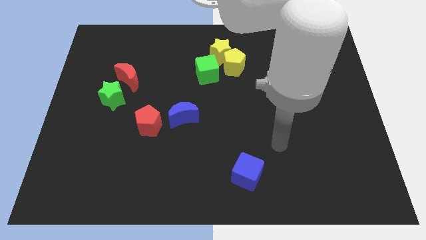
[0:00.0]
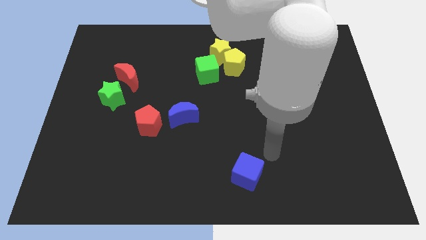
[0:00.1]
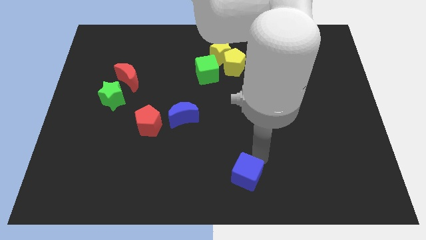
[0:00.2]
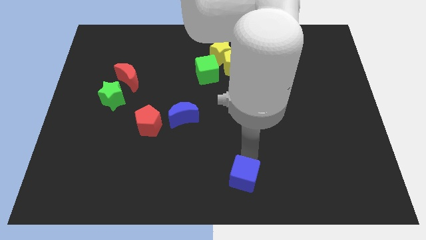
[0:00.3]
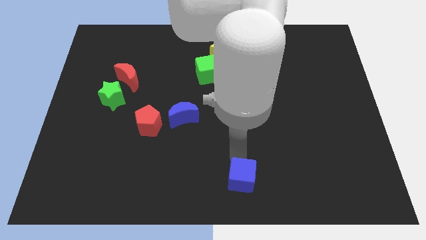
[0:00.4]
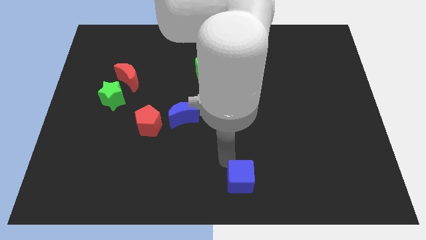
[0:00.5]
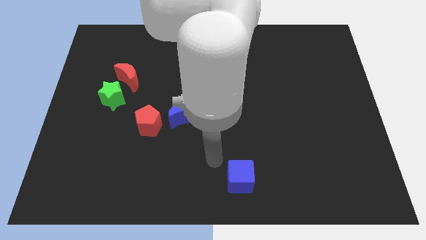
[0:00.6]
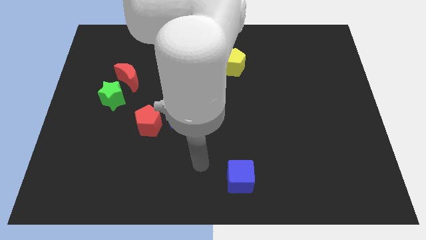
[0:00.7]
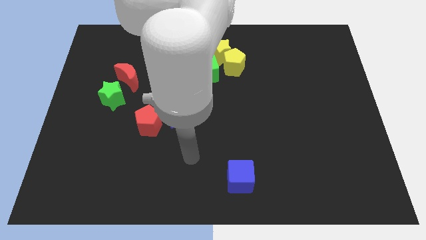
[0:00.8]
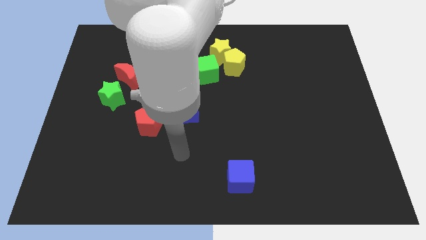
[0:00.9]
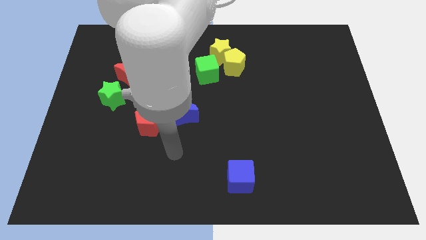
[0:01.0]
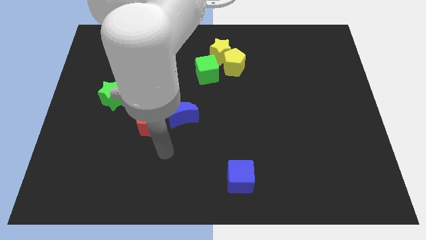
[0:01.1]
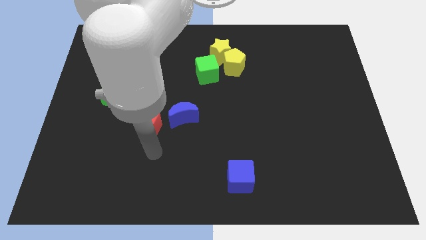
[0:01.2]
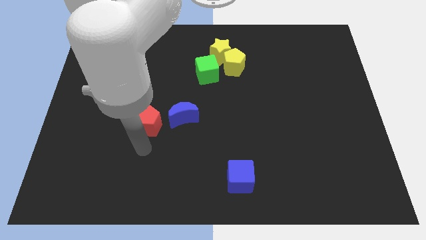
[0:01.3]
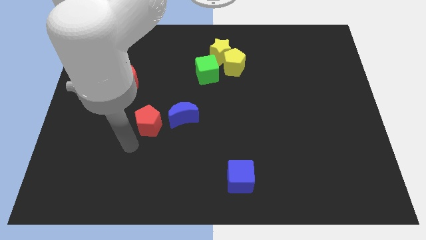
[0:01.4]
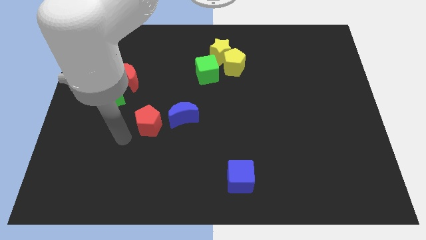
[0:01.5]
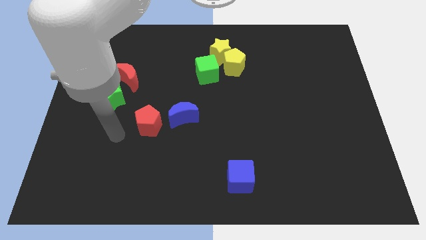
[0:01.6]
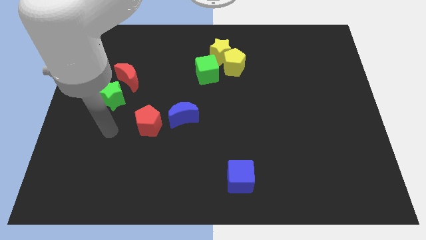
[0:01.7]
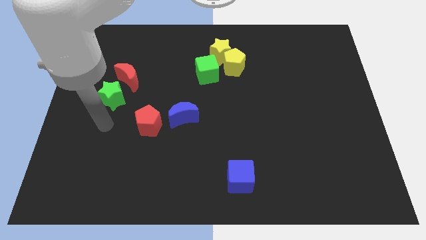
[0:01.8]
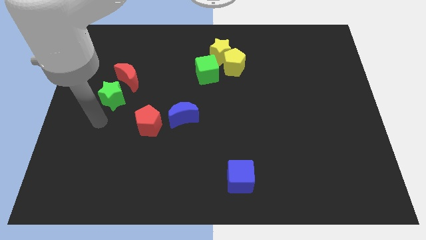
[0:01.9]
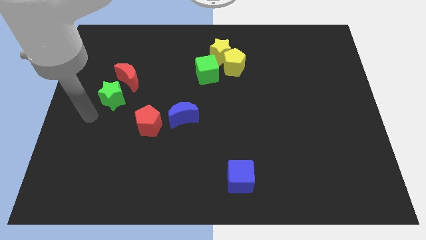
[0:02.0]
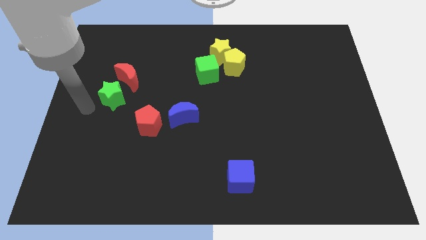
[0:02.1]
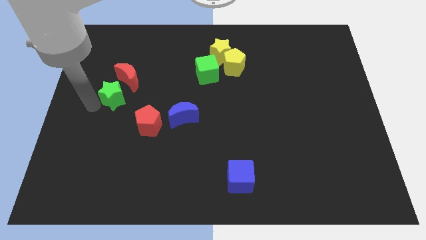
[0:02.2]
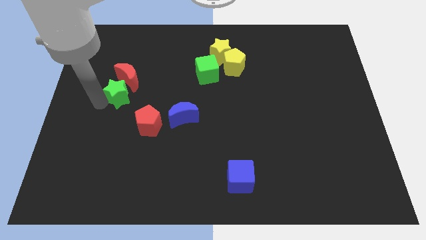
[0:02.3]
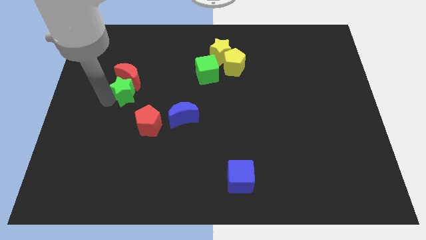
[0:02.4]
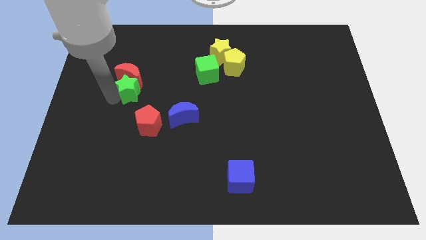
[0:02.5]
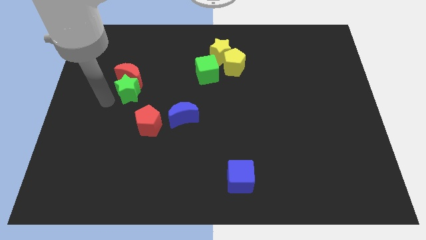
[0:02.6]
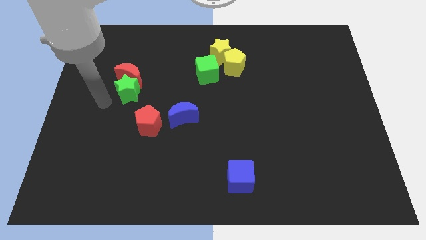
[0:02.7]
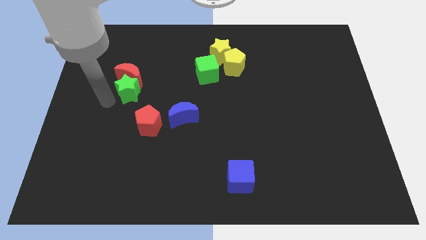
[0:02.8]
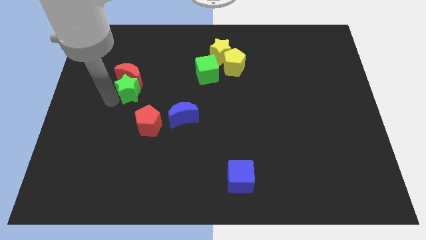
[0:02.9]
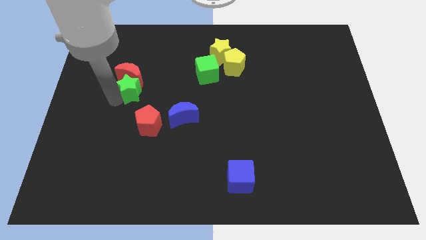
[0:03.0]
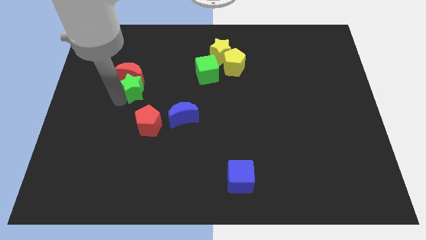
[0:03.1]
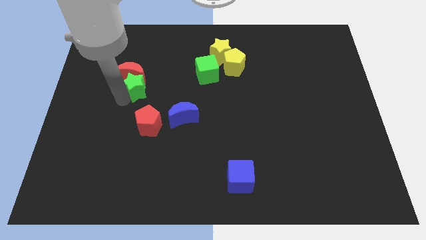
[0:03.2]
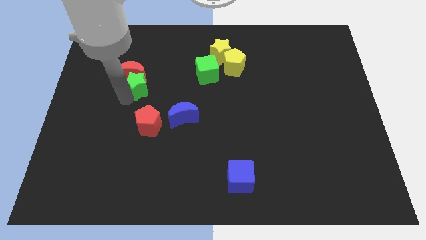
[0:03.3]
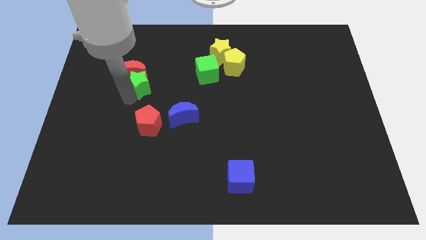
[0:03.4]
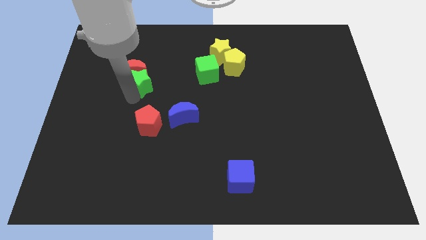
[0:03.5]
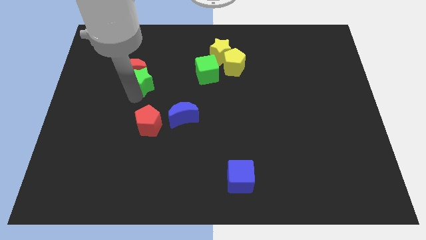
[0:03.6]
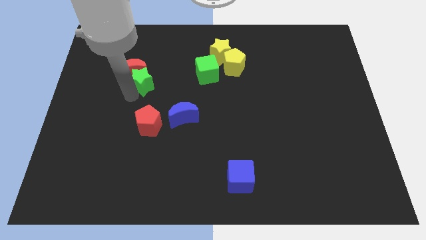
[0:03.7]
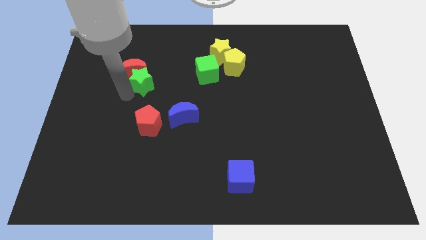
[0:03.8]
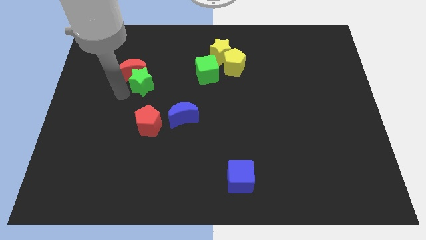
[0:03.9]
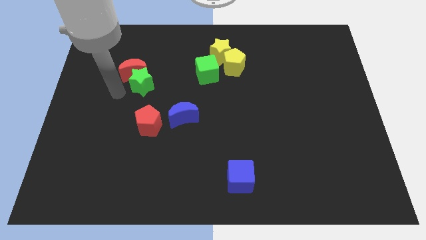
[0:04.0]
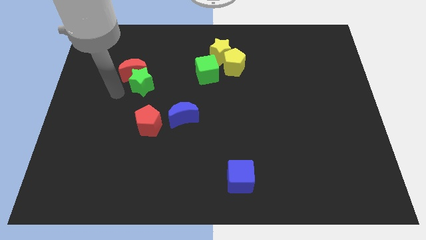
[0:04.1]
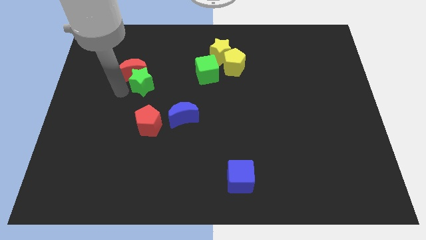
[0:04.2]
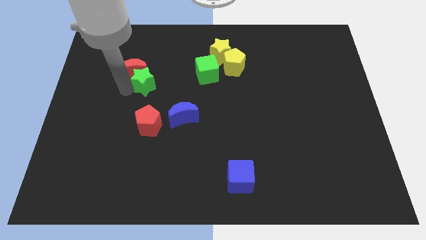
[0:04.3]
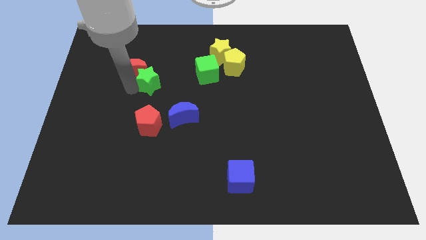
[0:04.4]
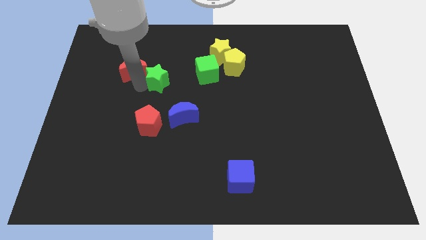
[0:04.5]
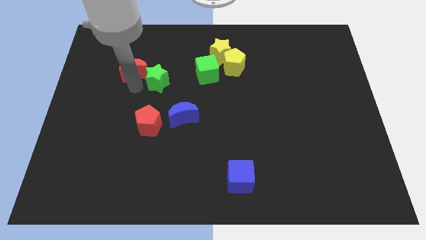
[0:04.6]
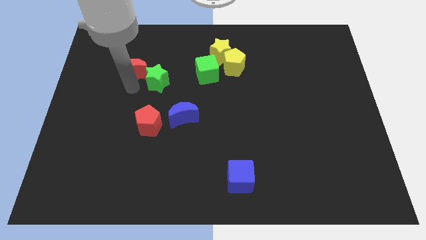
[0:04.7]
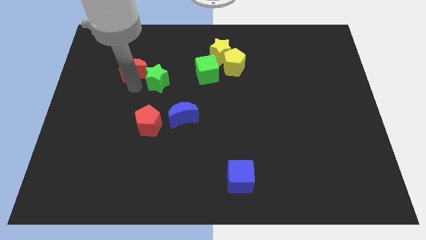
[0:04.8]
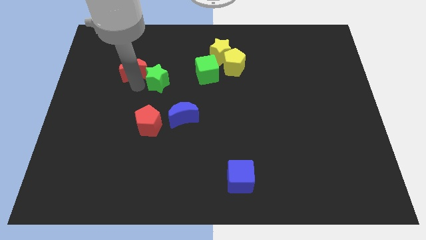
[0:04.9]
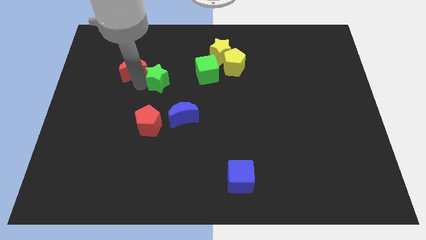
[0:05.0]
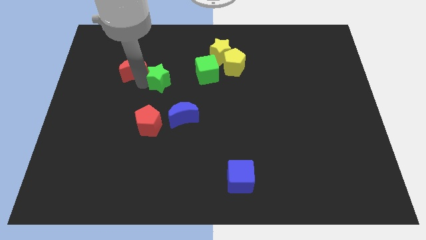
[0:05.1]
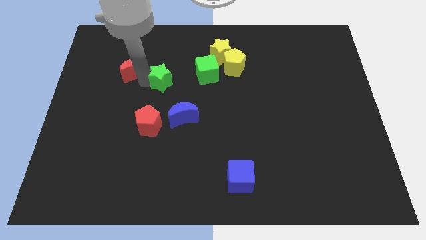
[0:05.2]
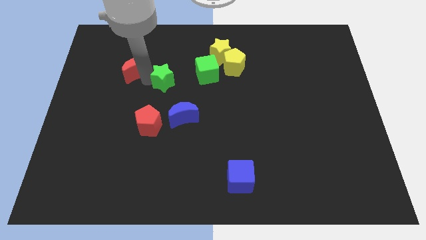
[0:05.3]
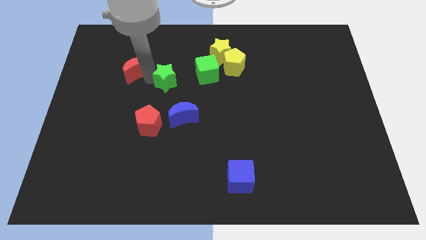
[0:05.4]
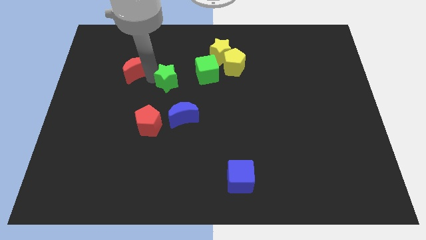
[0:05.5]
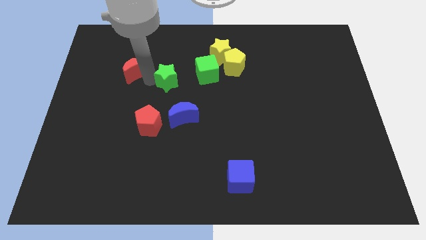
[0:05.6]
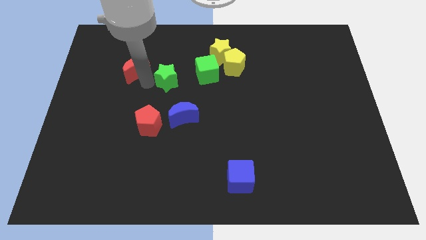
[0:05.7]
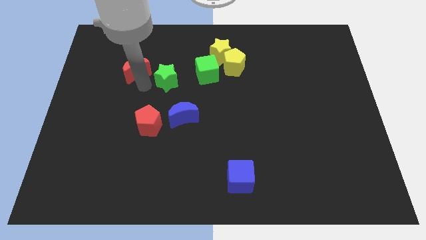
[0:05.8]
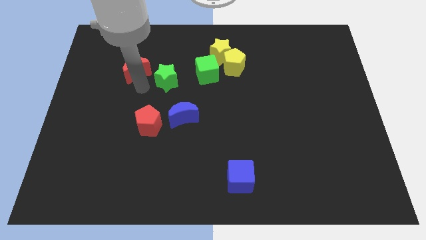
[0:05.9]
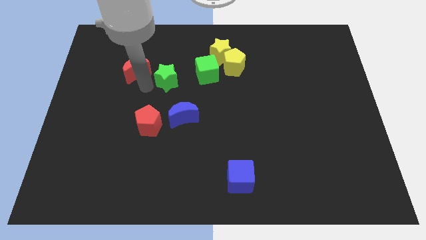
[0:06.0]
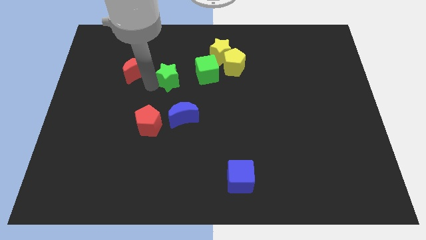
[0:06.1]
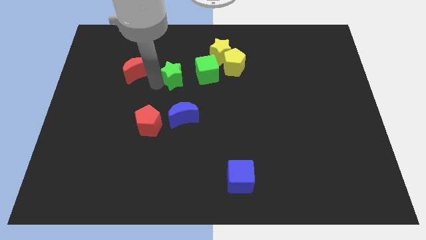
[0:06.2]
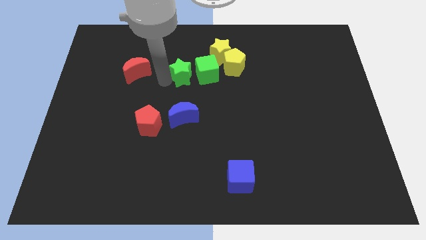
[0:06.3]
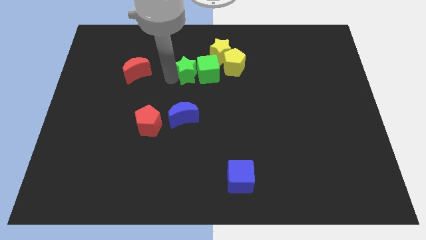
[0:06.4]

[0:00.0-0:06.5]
move the green star next to the green cube

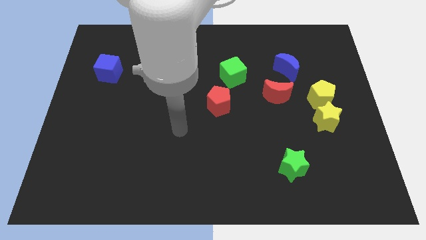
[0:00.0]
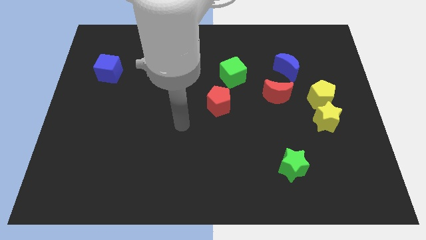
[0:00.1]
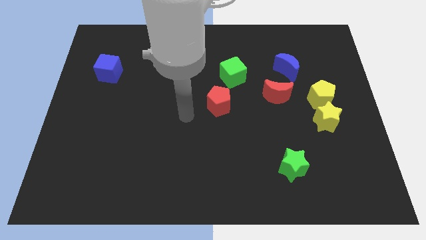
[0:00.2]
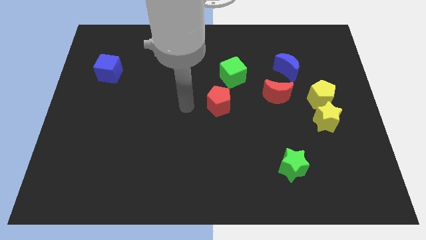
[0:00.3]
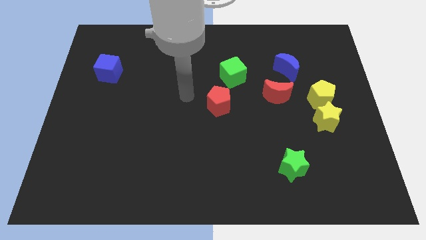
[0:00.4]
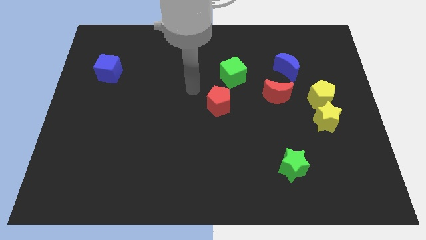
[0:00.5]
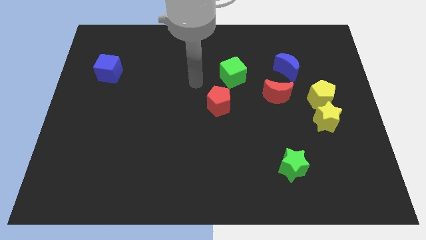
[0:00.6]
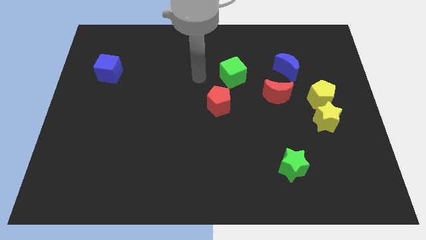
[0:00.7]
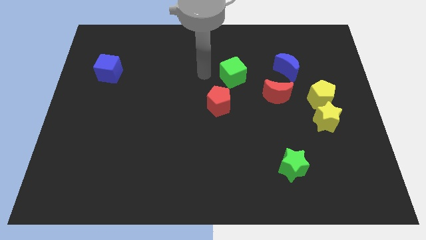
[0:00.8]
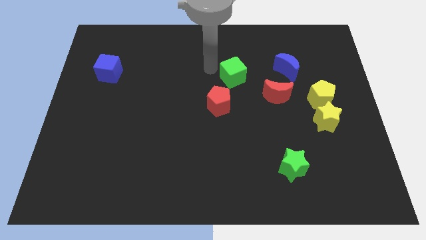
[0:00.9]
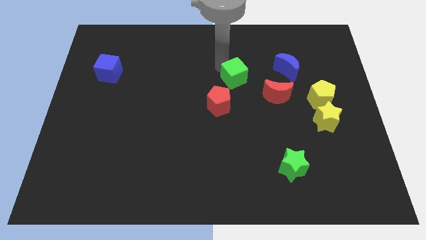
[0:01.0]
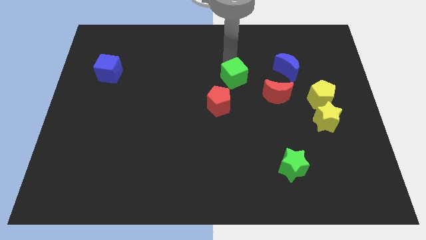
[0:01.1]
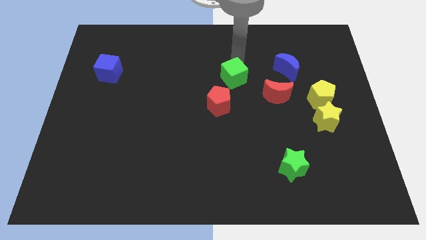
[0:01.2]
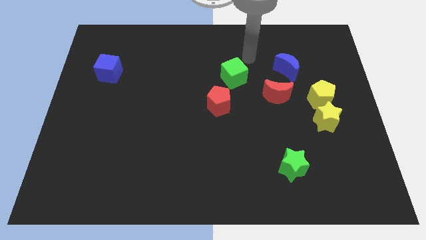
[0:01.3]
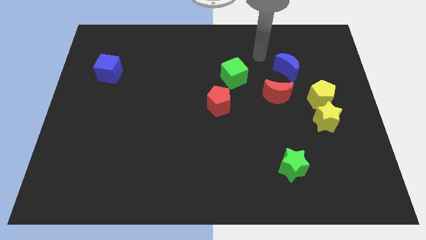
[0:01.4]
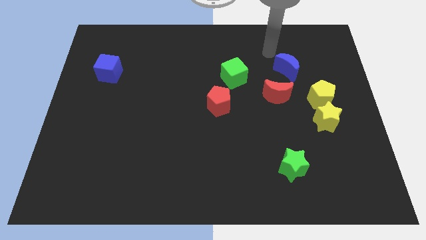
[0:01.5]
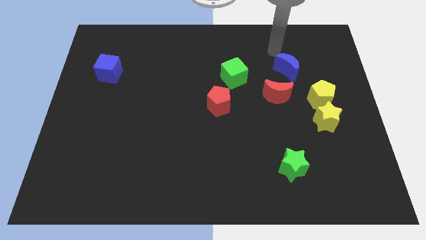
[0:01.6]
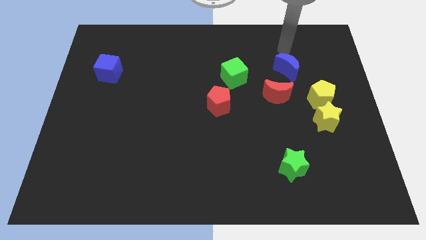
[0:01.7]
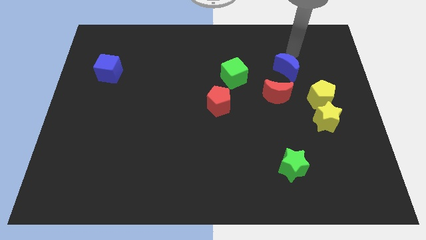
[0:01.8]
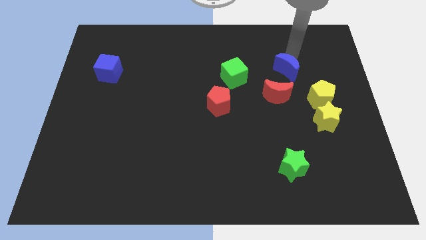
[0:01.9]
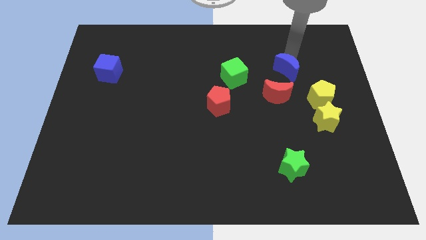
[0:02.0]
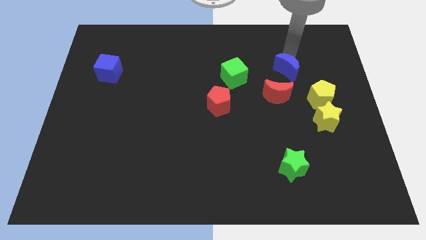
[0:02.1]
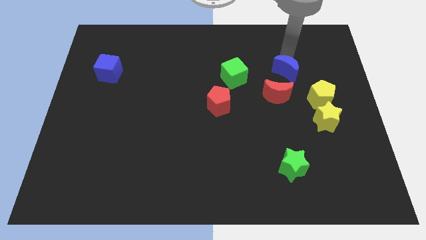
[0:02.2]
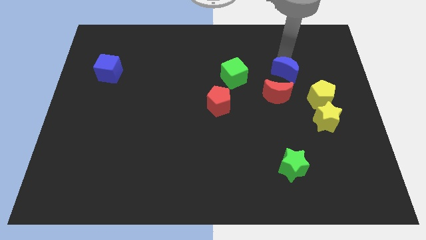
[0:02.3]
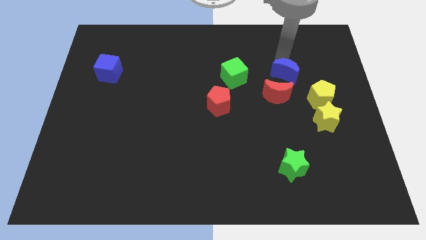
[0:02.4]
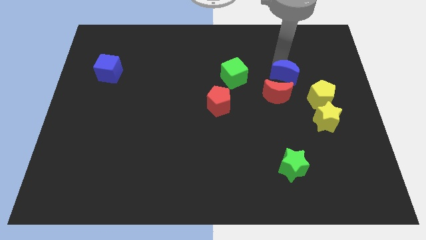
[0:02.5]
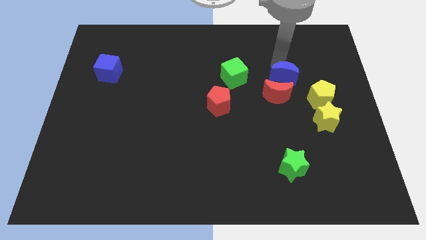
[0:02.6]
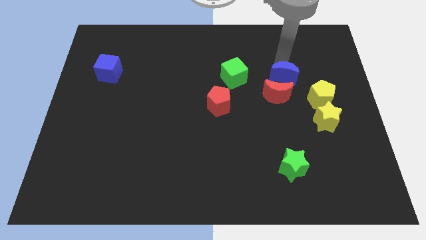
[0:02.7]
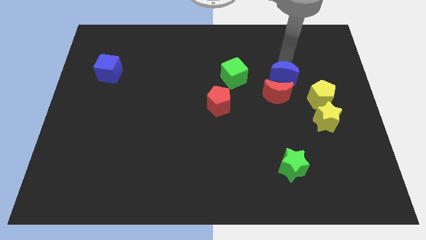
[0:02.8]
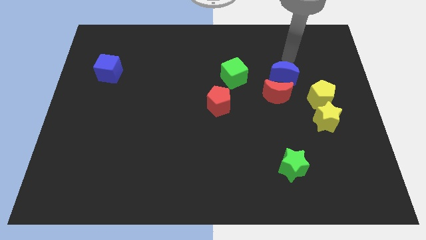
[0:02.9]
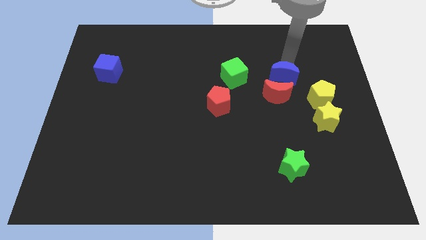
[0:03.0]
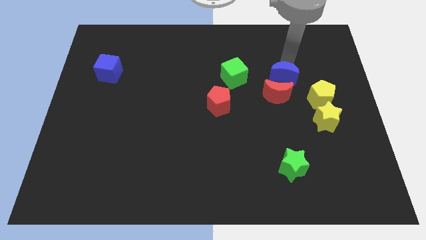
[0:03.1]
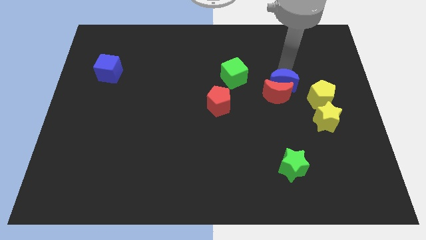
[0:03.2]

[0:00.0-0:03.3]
push the blue moon towards the red moon
